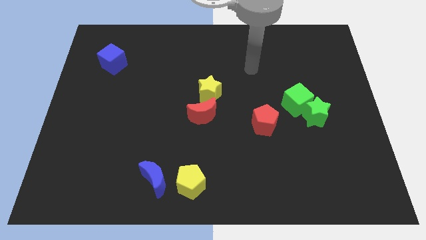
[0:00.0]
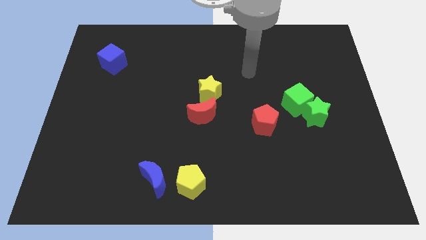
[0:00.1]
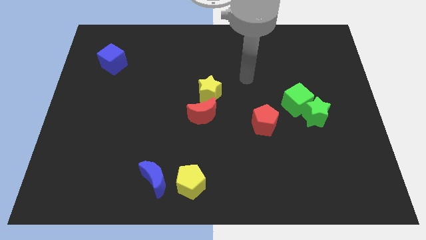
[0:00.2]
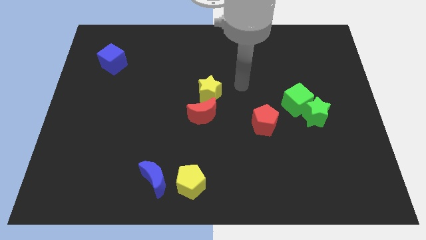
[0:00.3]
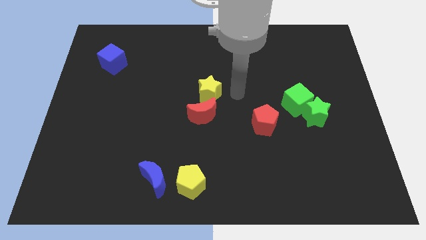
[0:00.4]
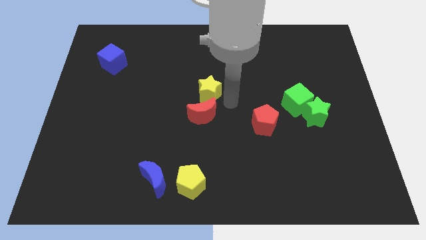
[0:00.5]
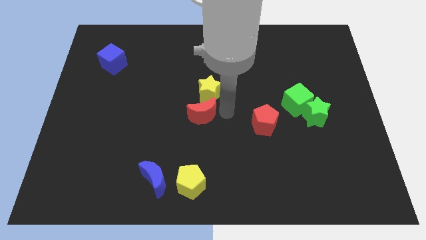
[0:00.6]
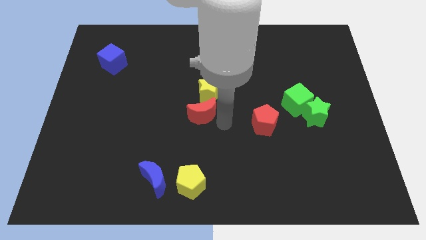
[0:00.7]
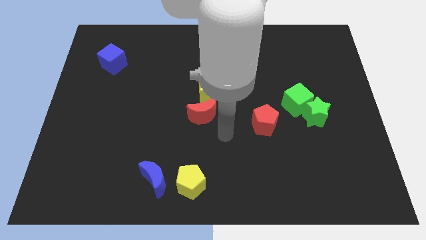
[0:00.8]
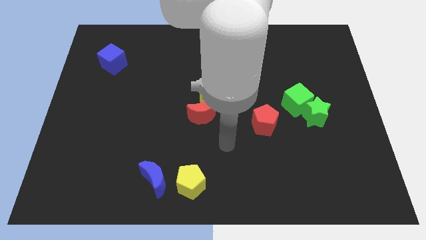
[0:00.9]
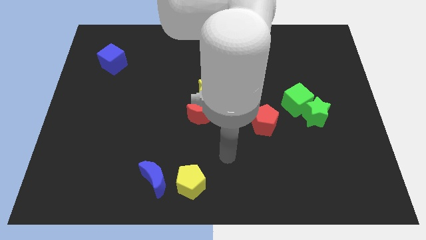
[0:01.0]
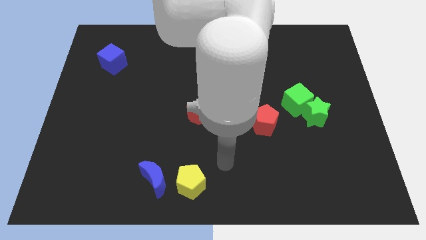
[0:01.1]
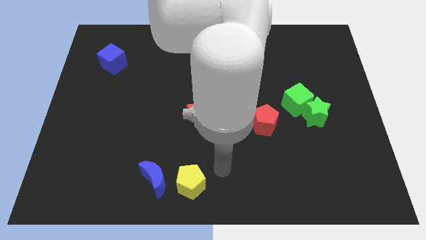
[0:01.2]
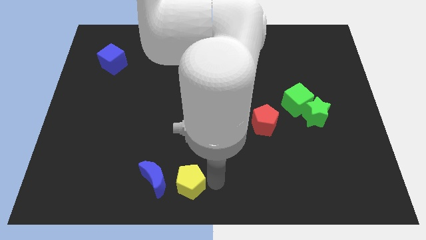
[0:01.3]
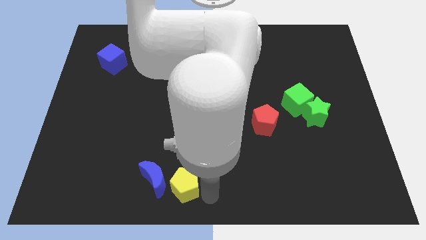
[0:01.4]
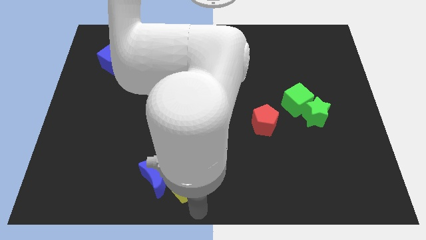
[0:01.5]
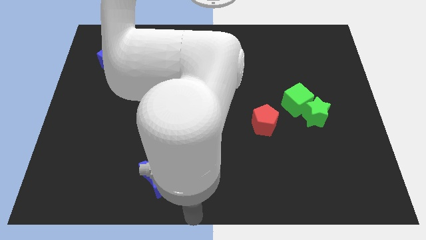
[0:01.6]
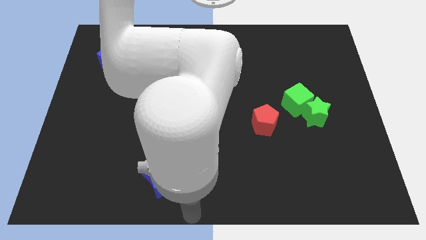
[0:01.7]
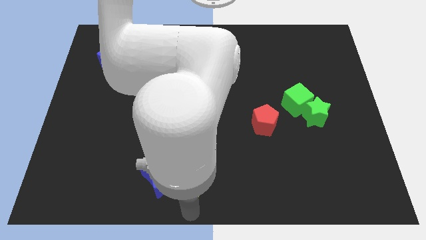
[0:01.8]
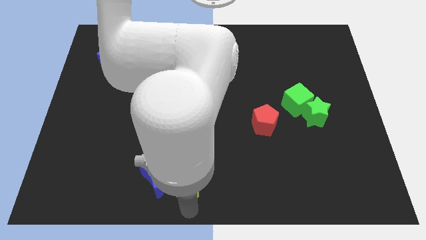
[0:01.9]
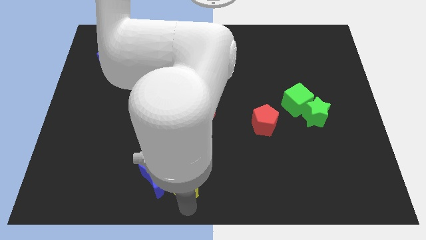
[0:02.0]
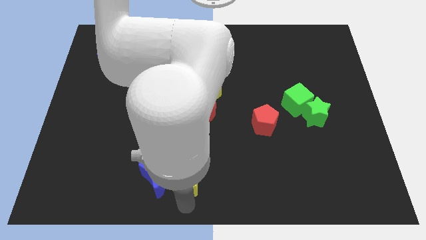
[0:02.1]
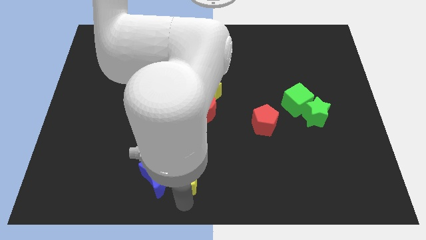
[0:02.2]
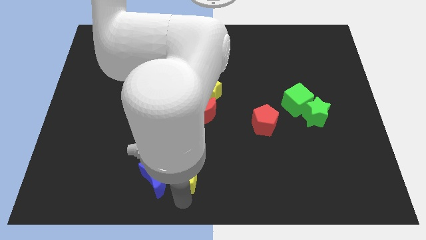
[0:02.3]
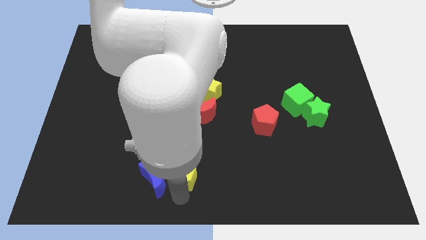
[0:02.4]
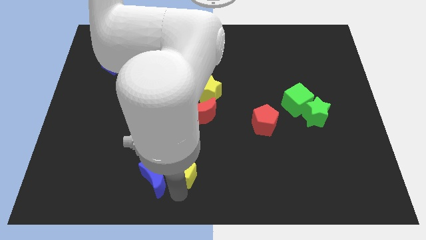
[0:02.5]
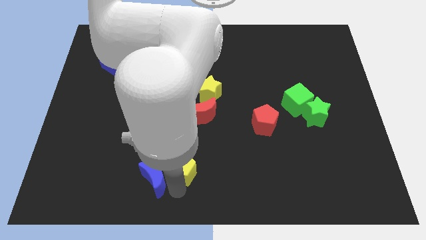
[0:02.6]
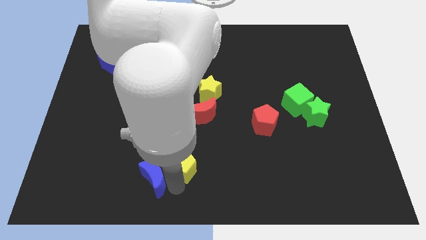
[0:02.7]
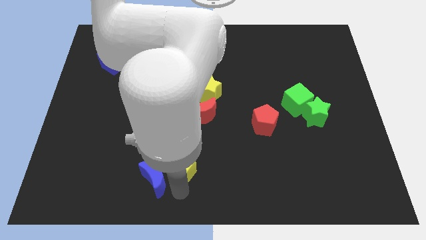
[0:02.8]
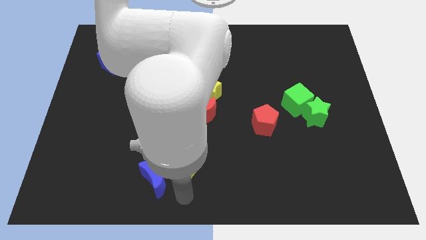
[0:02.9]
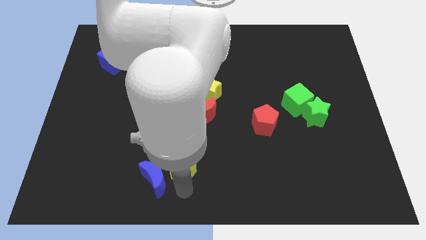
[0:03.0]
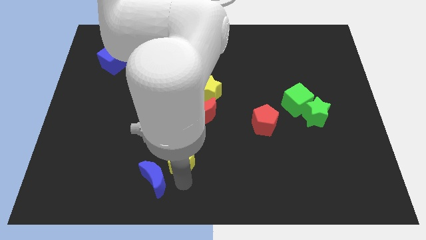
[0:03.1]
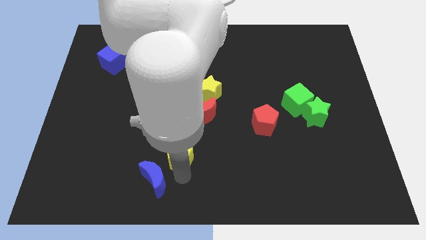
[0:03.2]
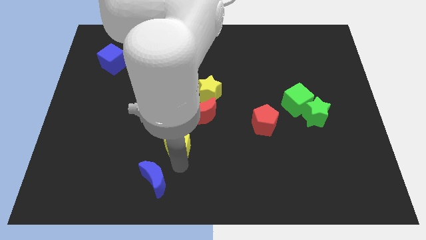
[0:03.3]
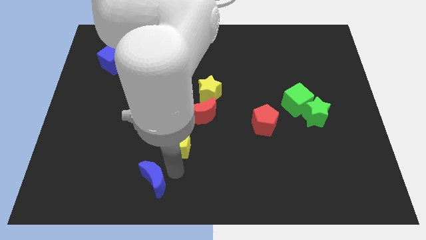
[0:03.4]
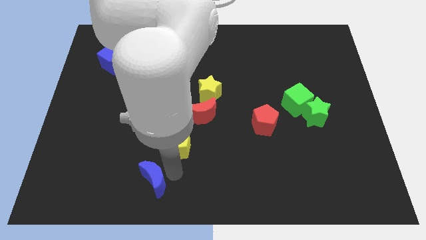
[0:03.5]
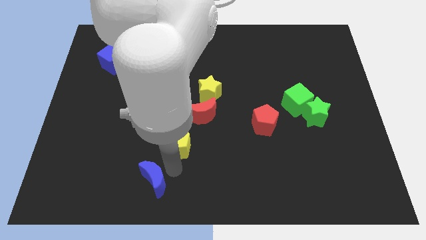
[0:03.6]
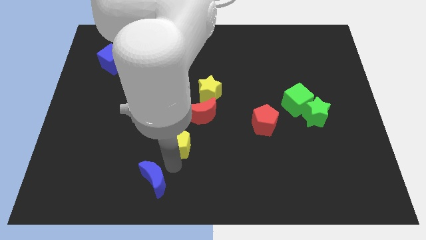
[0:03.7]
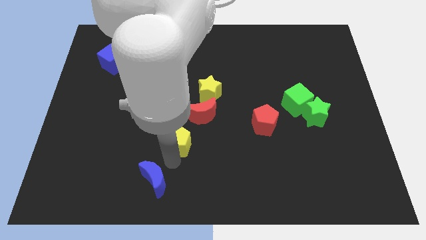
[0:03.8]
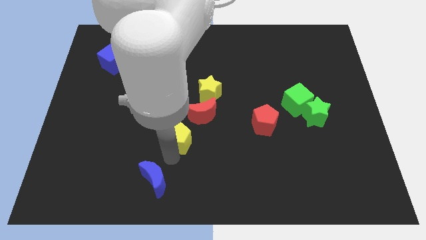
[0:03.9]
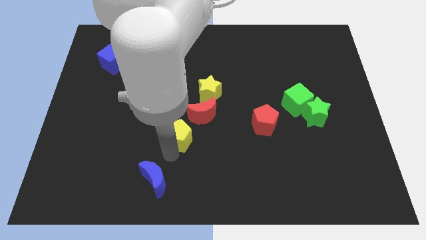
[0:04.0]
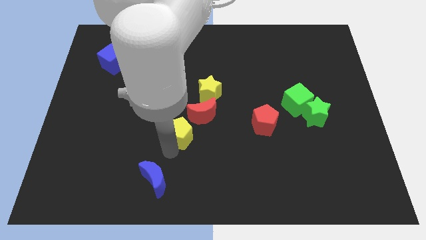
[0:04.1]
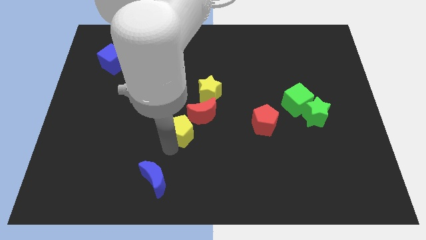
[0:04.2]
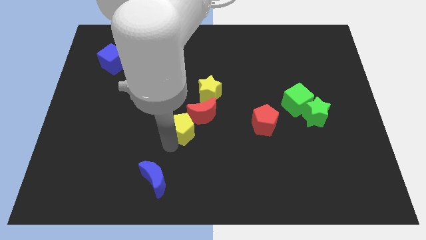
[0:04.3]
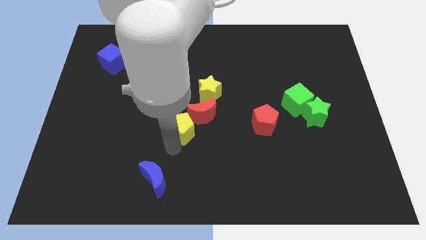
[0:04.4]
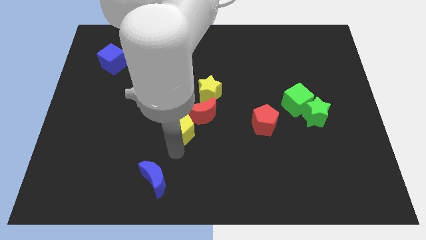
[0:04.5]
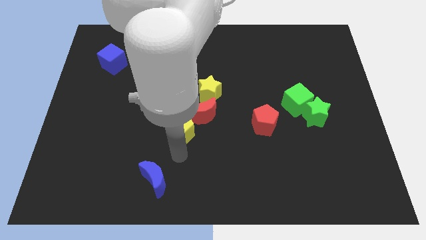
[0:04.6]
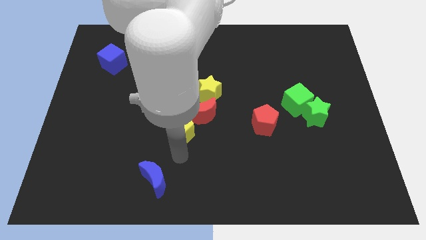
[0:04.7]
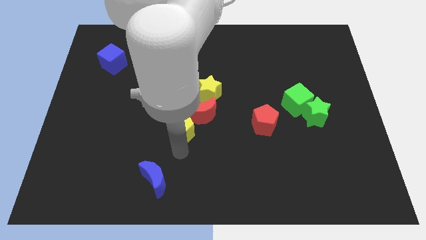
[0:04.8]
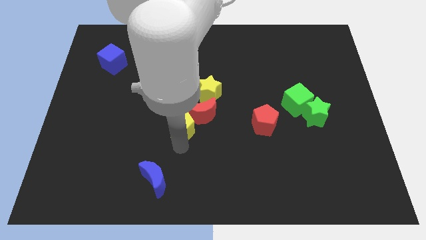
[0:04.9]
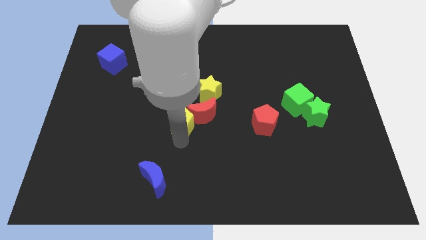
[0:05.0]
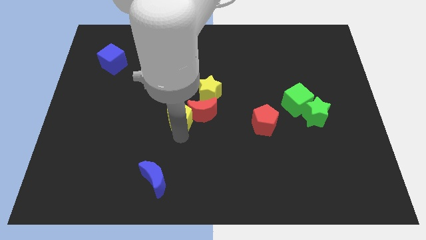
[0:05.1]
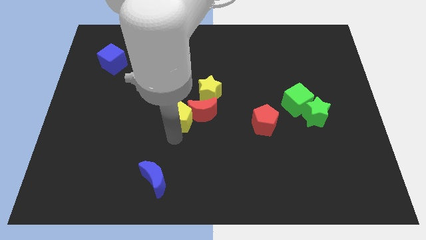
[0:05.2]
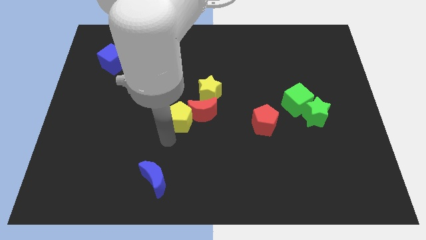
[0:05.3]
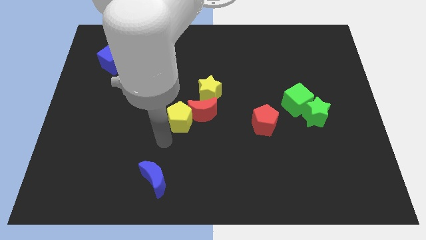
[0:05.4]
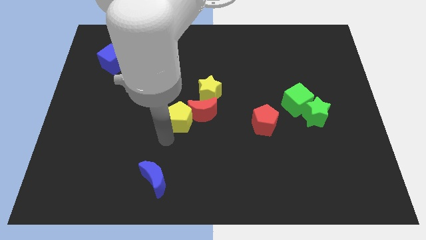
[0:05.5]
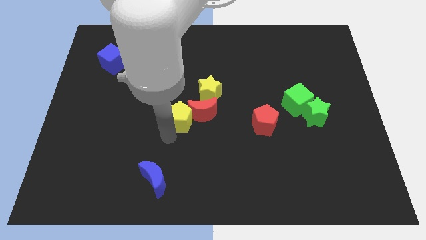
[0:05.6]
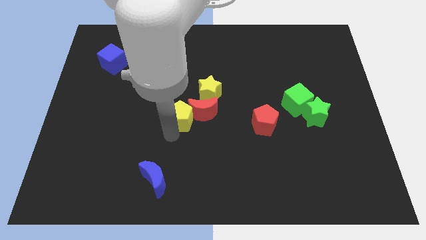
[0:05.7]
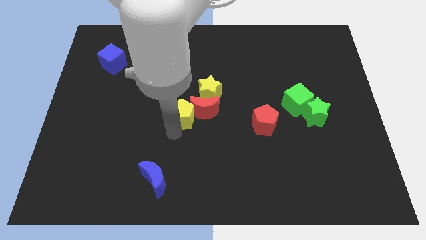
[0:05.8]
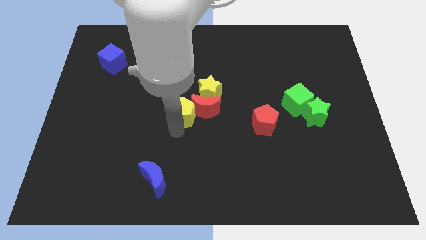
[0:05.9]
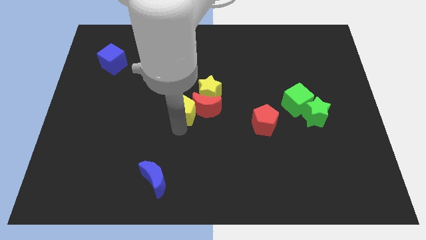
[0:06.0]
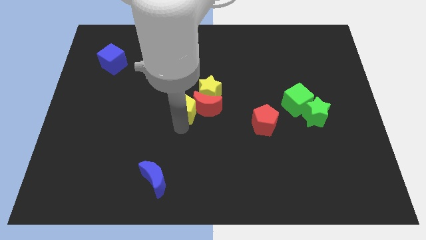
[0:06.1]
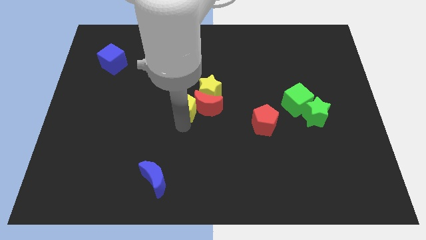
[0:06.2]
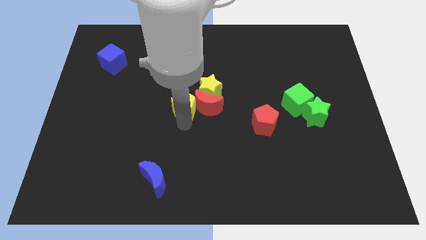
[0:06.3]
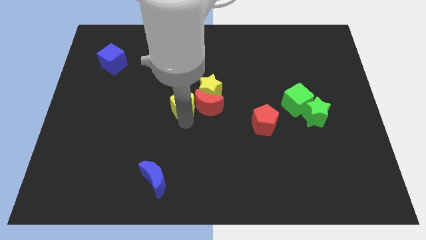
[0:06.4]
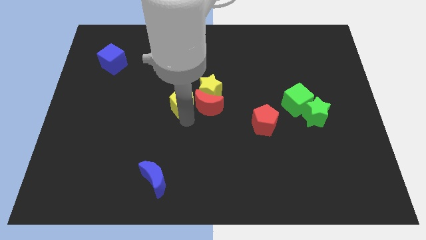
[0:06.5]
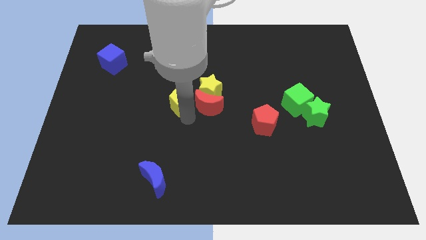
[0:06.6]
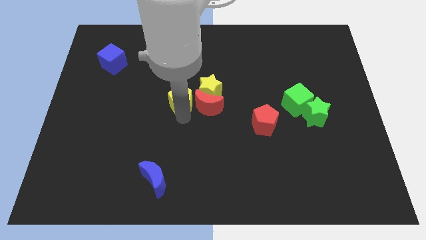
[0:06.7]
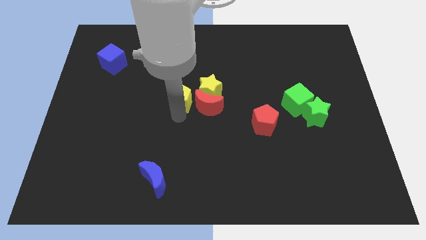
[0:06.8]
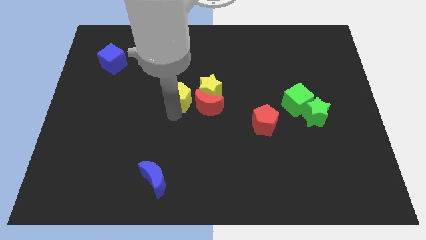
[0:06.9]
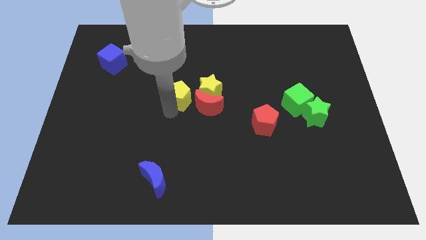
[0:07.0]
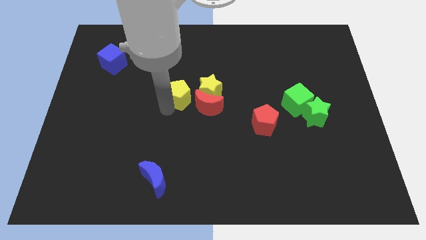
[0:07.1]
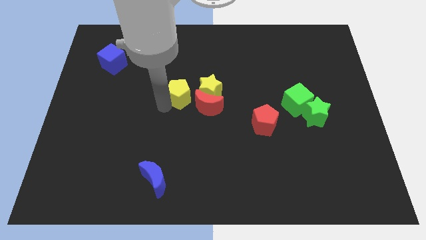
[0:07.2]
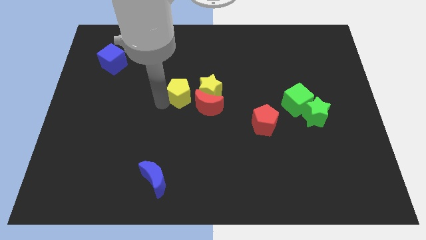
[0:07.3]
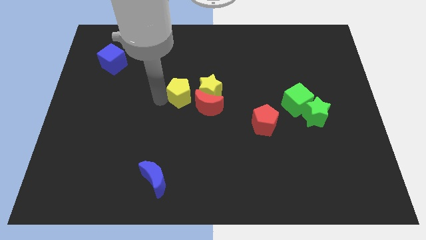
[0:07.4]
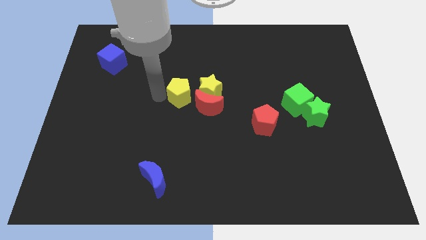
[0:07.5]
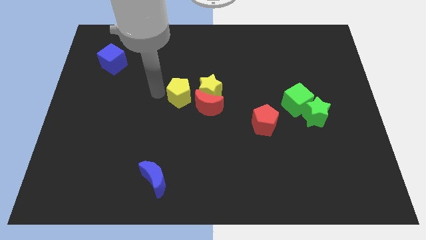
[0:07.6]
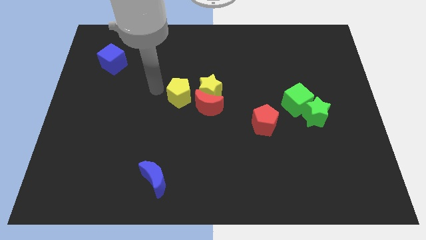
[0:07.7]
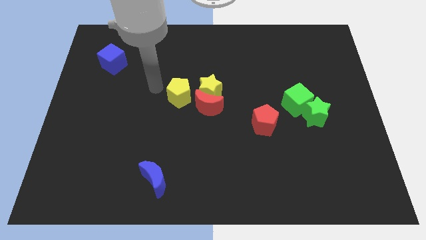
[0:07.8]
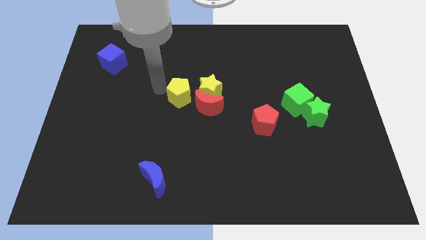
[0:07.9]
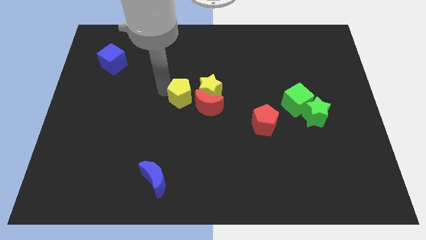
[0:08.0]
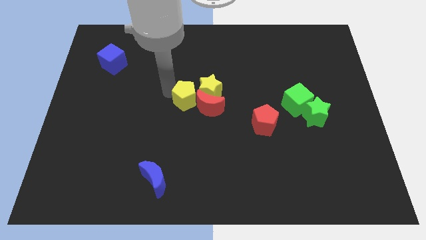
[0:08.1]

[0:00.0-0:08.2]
push the yellow pentagon close to the yellow star
